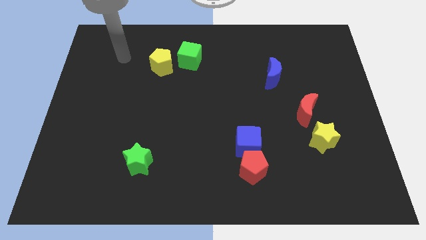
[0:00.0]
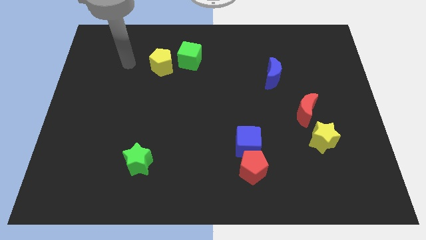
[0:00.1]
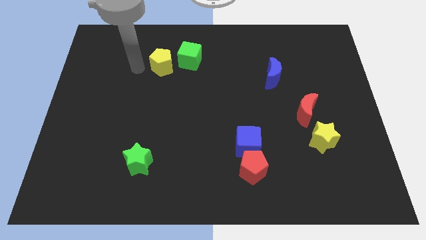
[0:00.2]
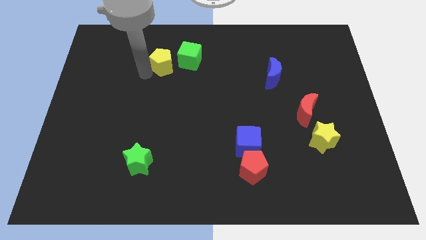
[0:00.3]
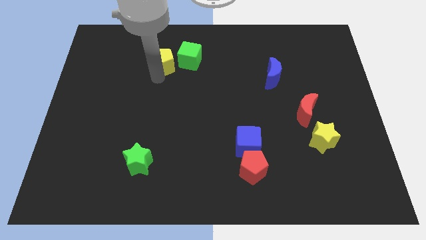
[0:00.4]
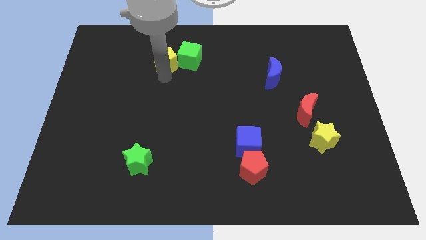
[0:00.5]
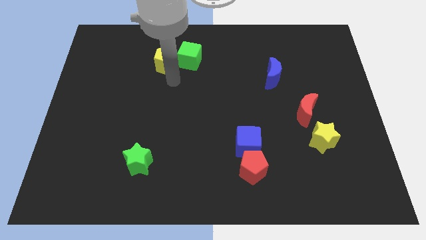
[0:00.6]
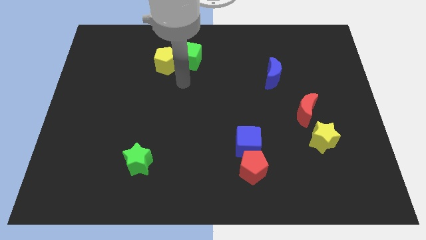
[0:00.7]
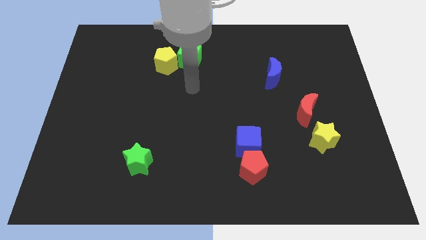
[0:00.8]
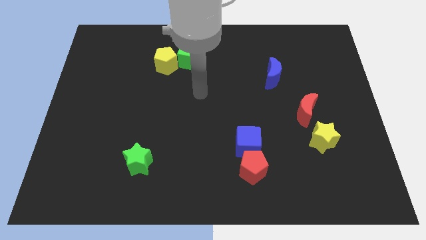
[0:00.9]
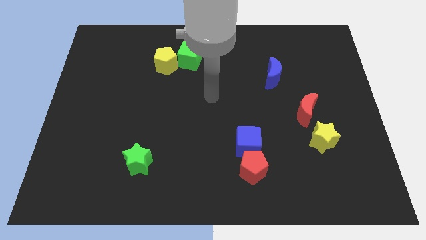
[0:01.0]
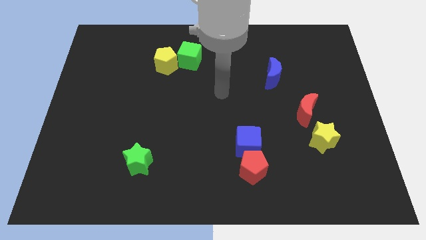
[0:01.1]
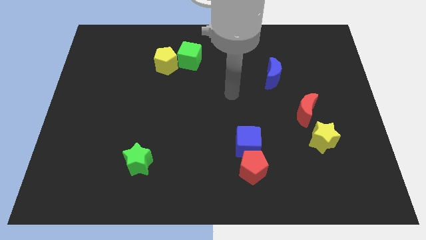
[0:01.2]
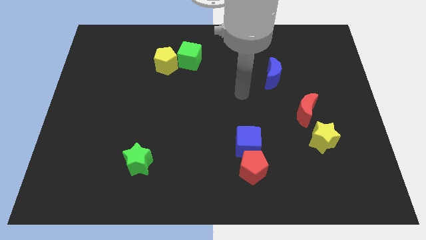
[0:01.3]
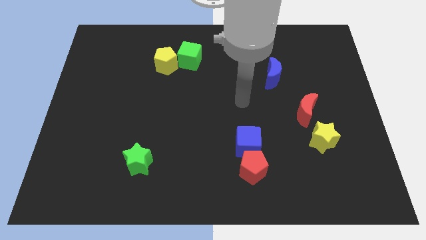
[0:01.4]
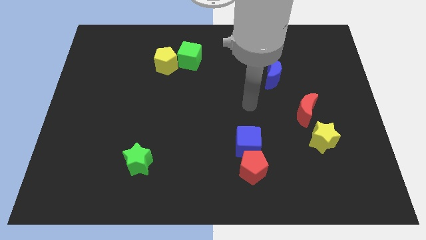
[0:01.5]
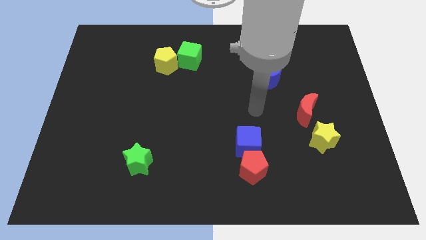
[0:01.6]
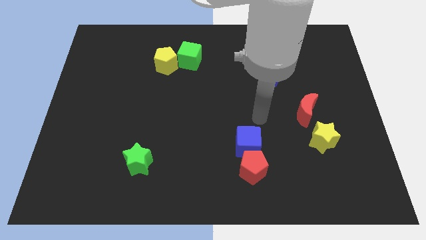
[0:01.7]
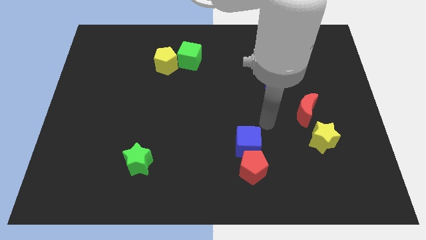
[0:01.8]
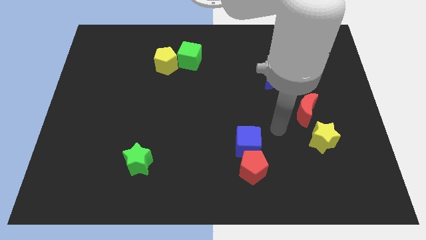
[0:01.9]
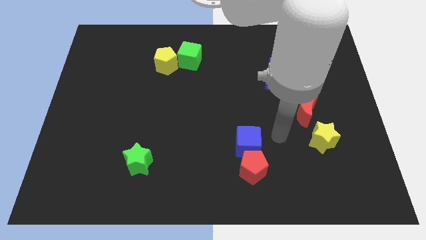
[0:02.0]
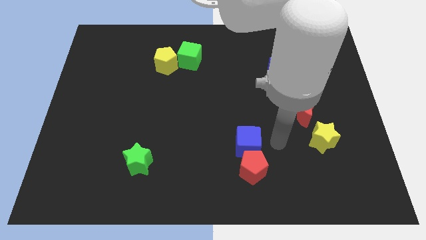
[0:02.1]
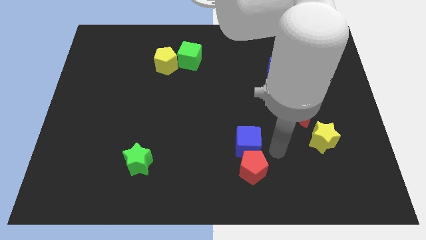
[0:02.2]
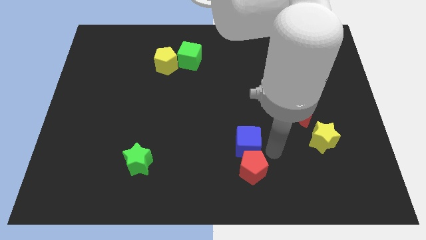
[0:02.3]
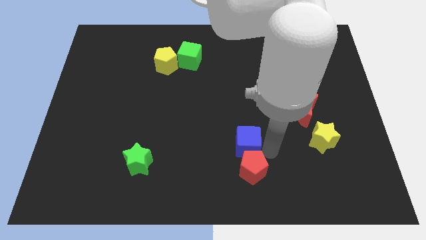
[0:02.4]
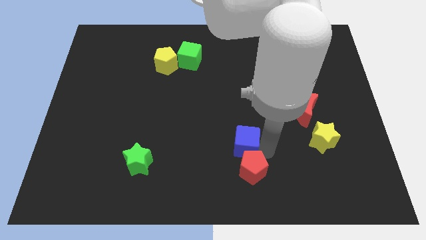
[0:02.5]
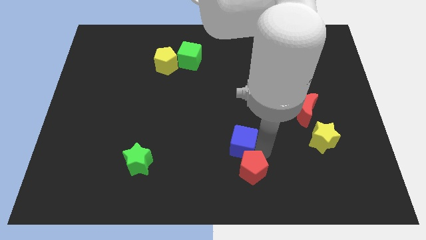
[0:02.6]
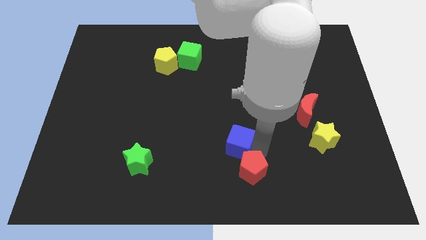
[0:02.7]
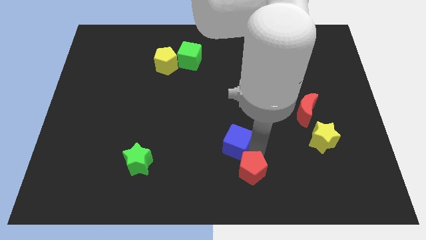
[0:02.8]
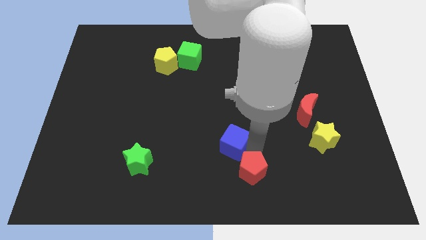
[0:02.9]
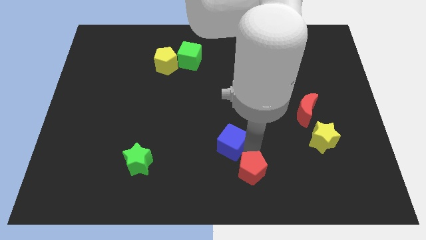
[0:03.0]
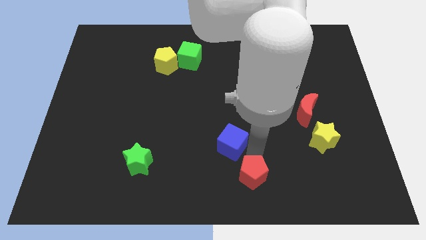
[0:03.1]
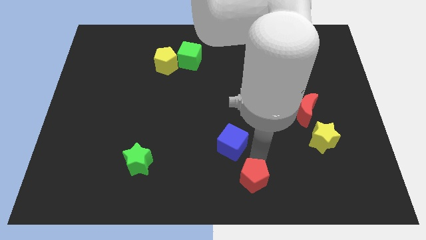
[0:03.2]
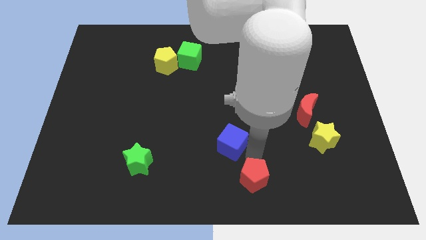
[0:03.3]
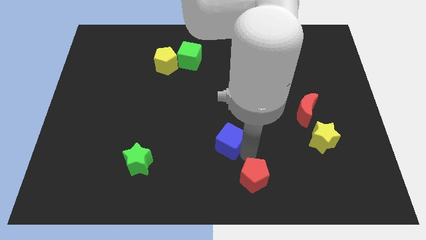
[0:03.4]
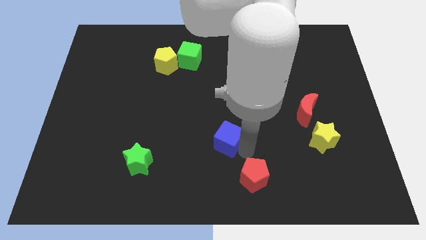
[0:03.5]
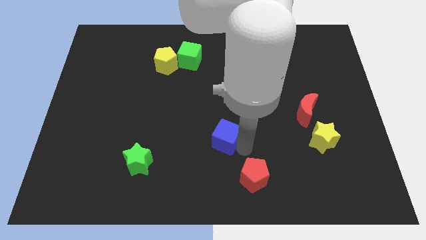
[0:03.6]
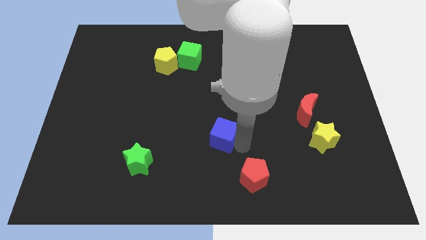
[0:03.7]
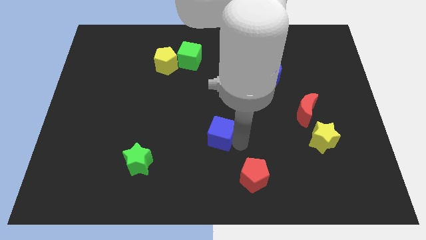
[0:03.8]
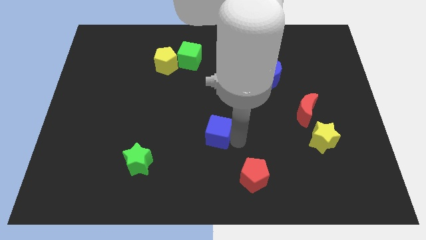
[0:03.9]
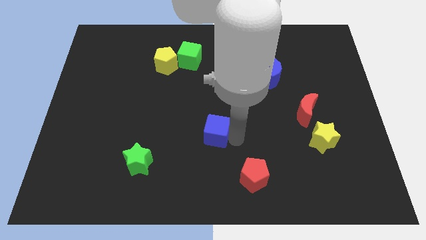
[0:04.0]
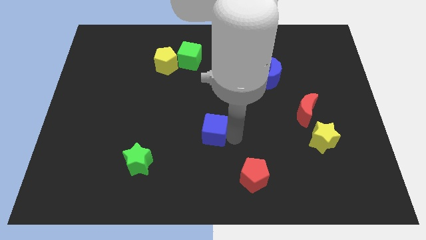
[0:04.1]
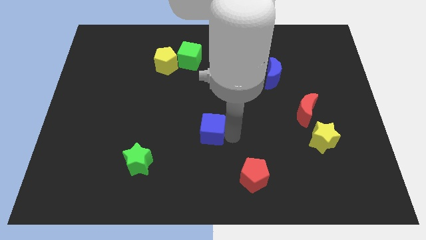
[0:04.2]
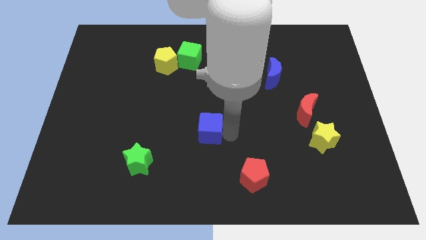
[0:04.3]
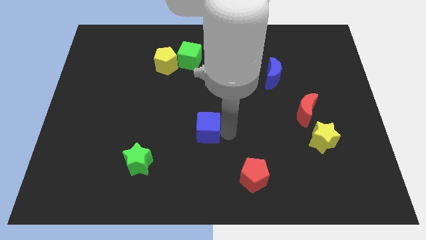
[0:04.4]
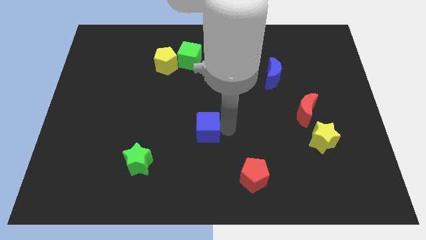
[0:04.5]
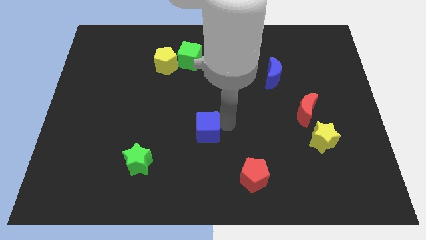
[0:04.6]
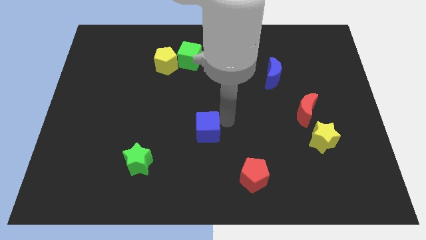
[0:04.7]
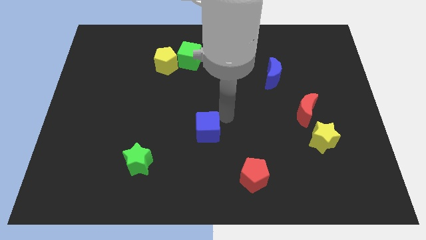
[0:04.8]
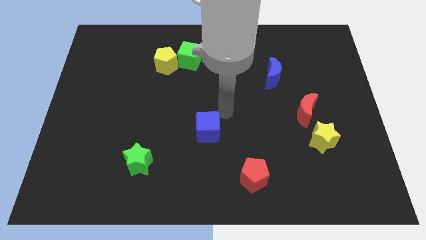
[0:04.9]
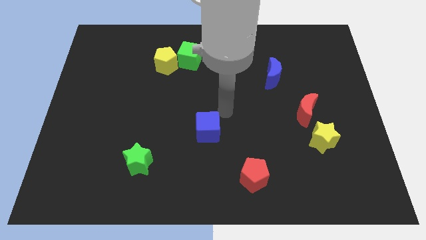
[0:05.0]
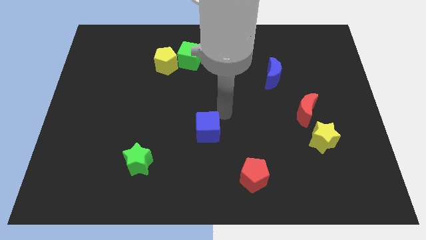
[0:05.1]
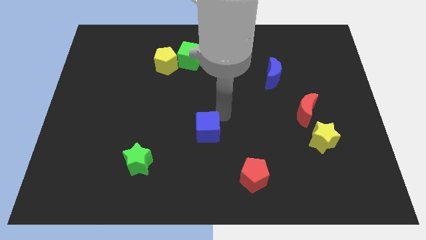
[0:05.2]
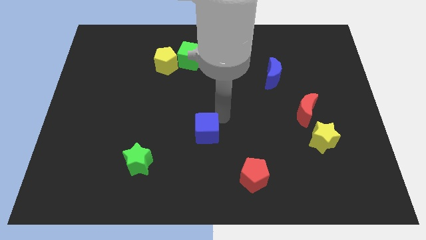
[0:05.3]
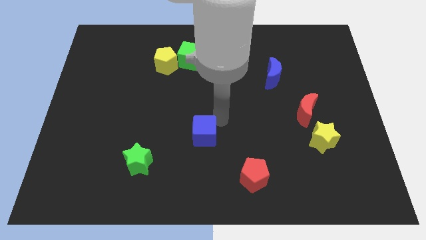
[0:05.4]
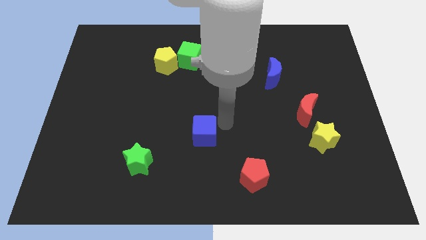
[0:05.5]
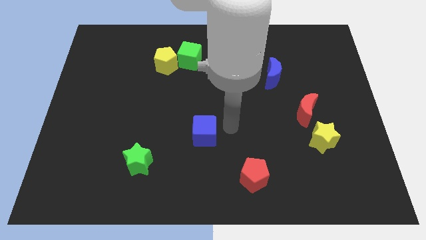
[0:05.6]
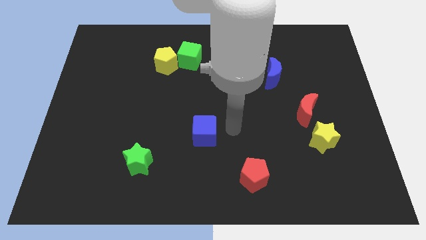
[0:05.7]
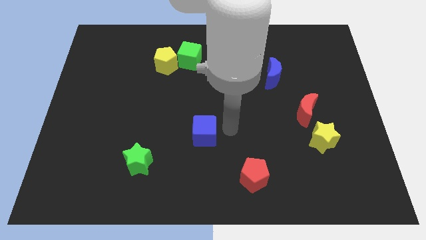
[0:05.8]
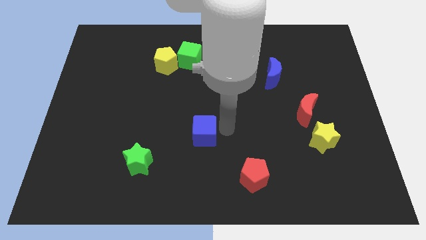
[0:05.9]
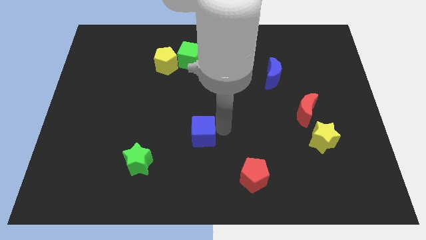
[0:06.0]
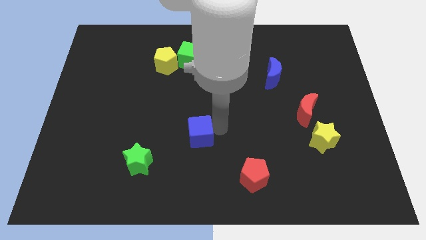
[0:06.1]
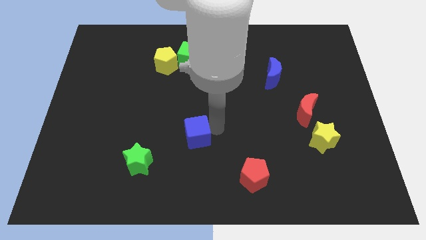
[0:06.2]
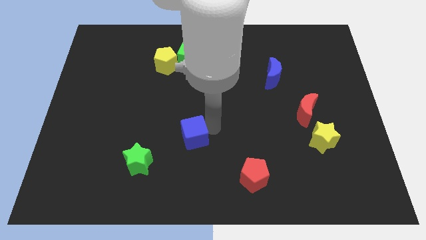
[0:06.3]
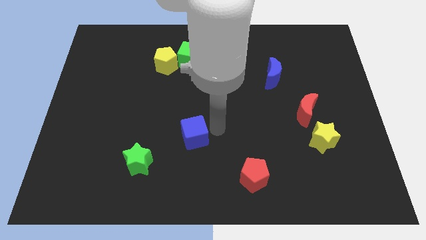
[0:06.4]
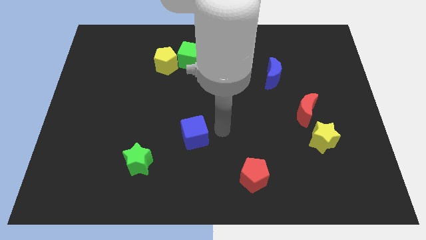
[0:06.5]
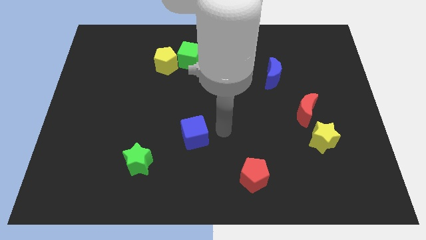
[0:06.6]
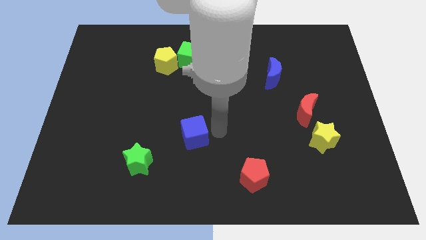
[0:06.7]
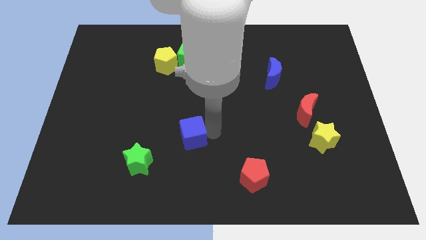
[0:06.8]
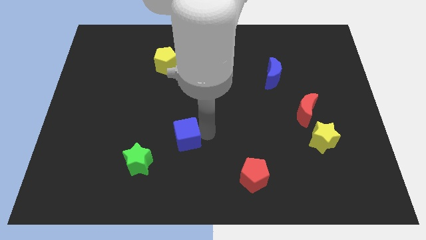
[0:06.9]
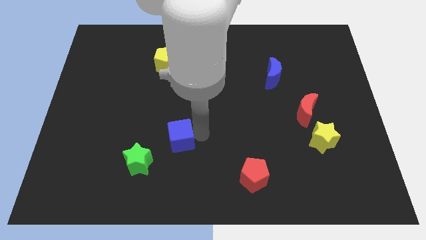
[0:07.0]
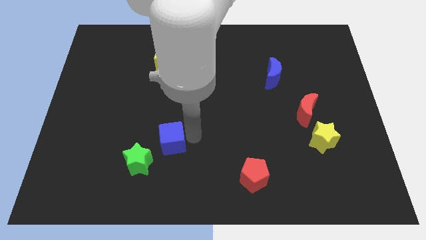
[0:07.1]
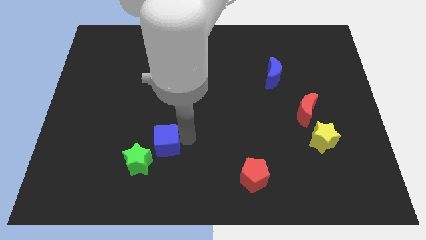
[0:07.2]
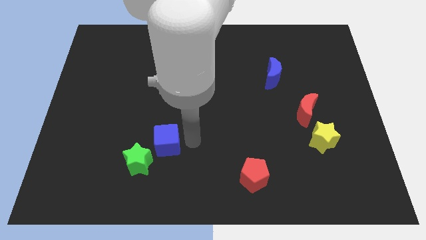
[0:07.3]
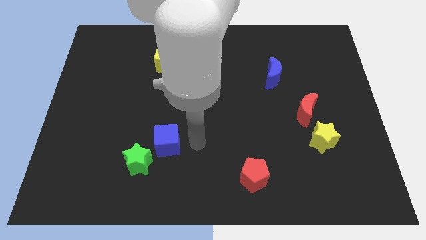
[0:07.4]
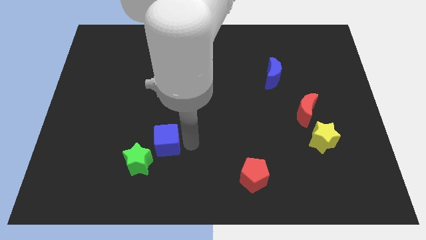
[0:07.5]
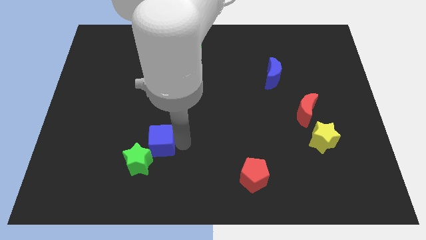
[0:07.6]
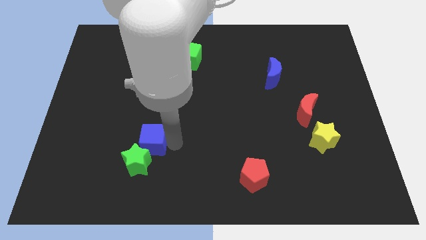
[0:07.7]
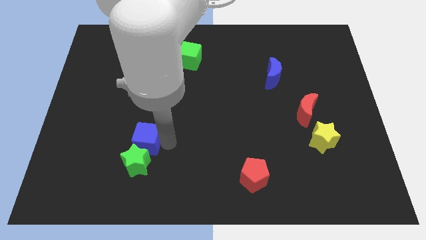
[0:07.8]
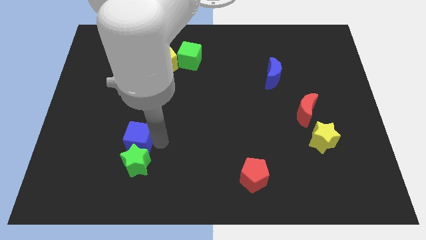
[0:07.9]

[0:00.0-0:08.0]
put the blue cube to the top left side of the green star
